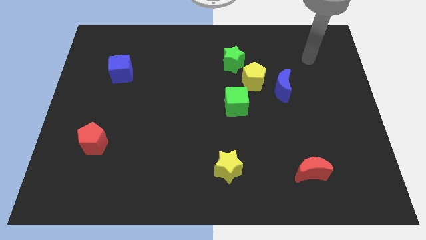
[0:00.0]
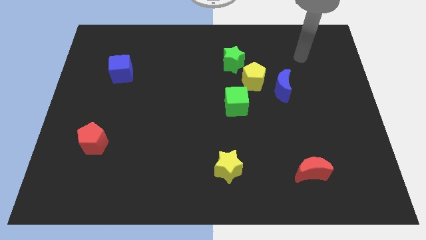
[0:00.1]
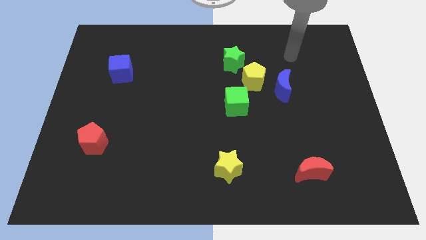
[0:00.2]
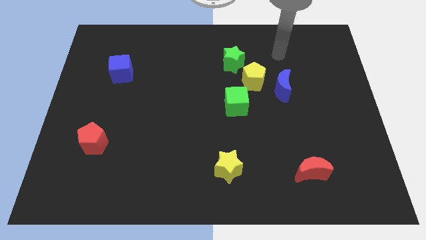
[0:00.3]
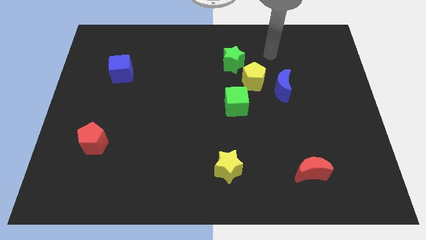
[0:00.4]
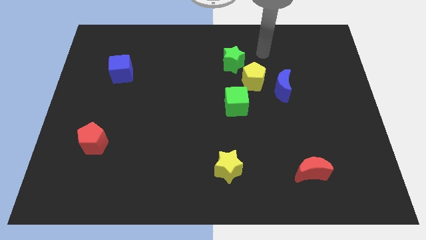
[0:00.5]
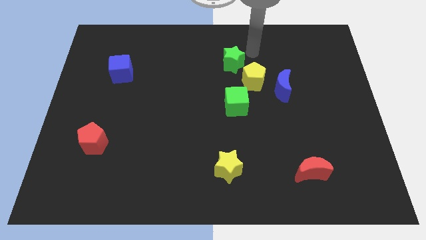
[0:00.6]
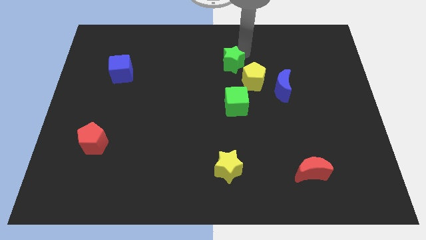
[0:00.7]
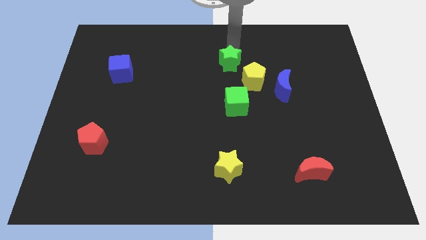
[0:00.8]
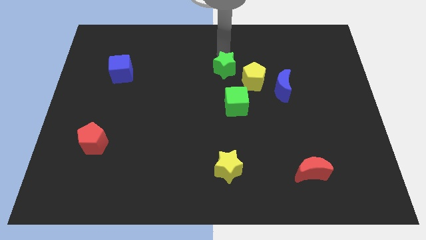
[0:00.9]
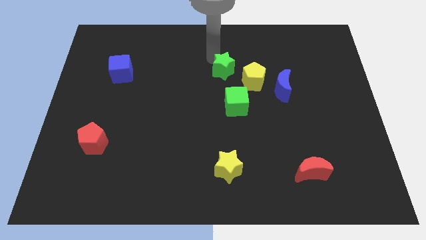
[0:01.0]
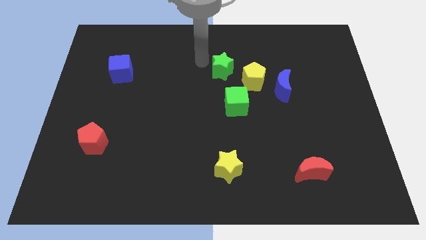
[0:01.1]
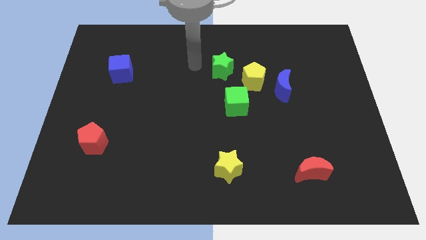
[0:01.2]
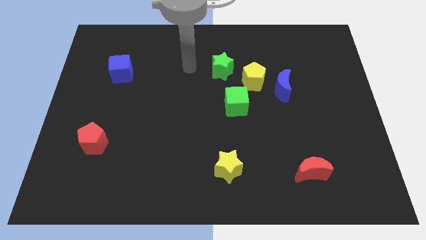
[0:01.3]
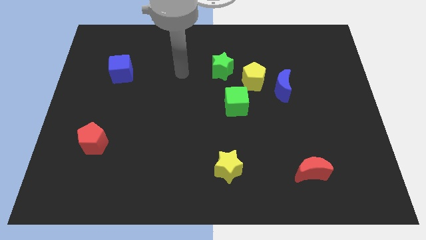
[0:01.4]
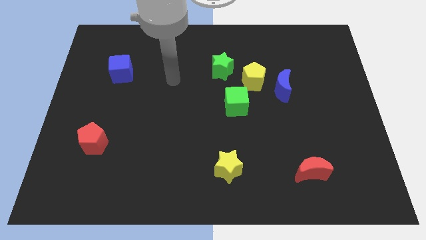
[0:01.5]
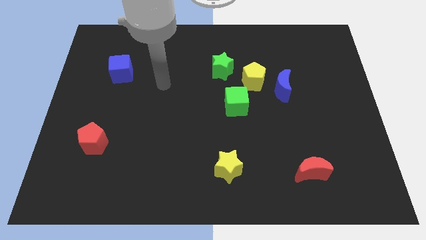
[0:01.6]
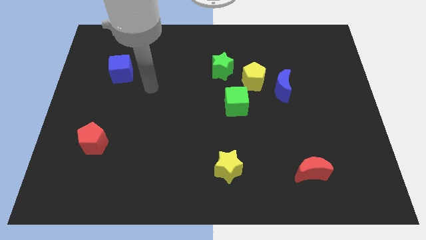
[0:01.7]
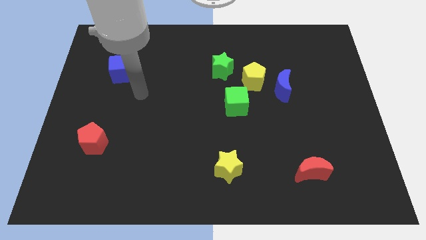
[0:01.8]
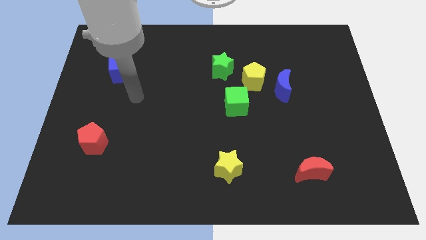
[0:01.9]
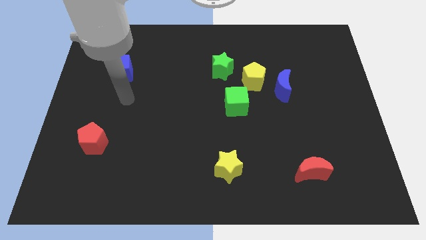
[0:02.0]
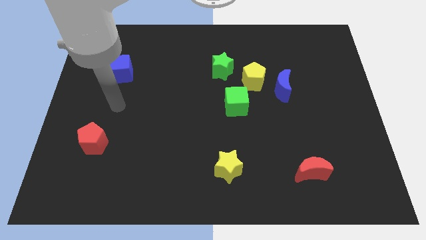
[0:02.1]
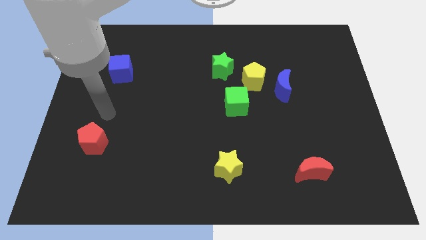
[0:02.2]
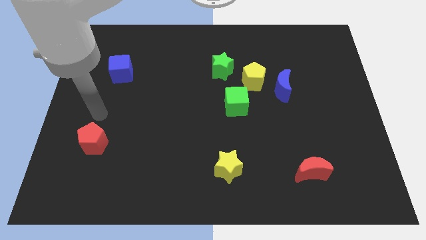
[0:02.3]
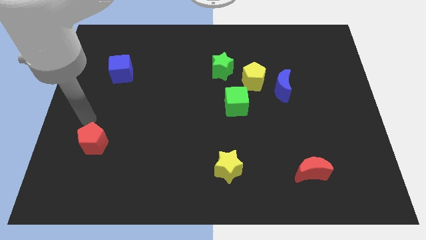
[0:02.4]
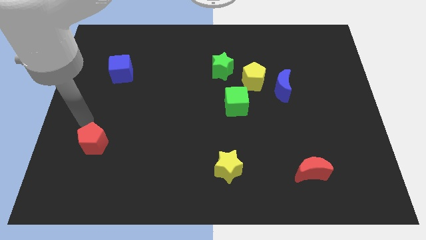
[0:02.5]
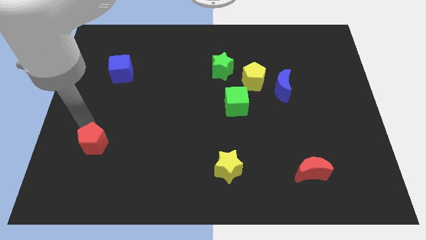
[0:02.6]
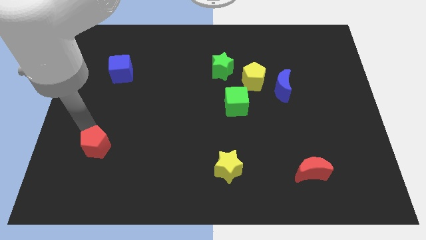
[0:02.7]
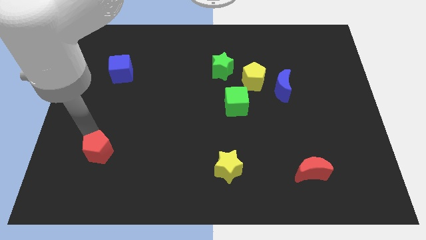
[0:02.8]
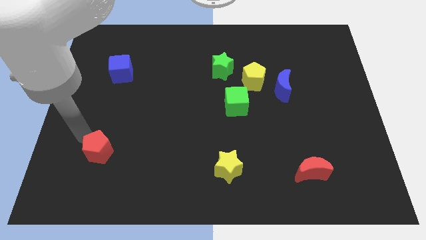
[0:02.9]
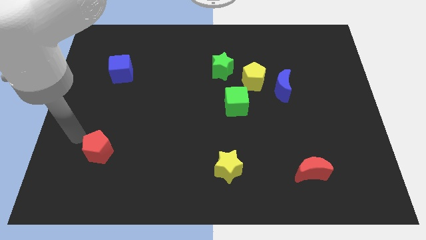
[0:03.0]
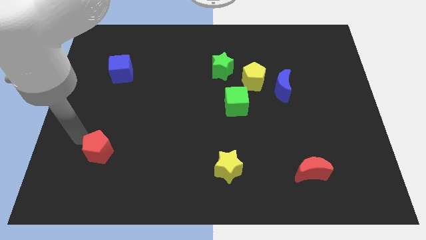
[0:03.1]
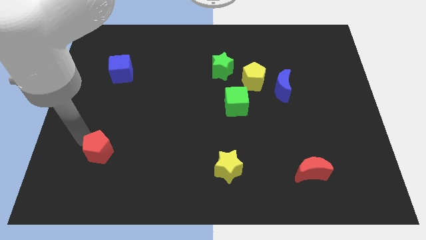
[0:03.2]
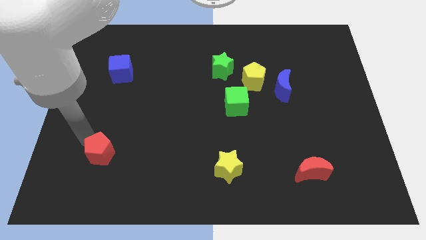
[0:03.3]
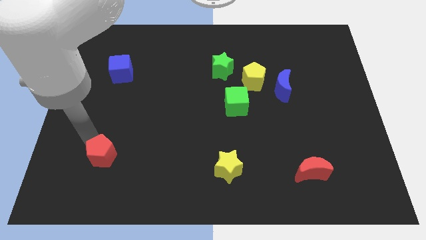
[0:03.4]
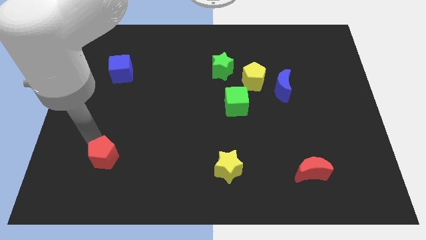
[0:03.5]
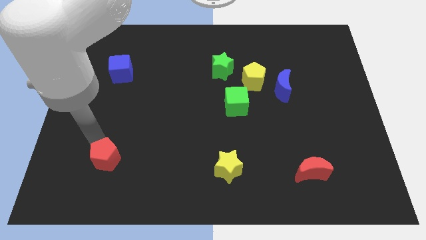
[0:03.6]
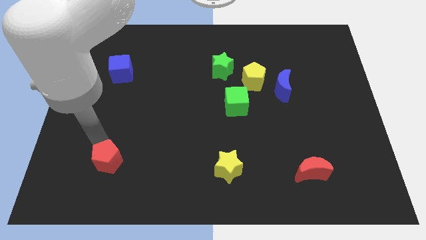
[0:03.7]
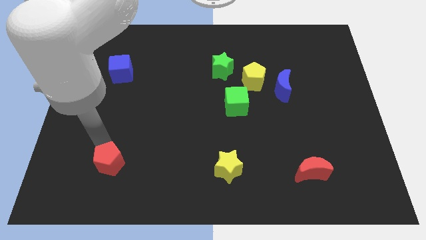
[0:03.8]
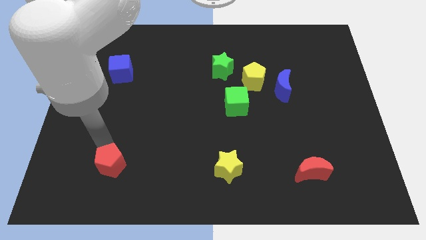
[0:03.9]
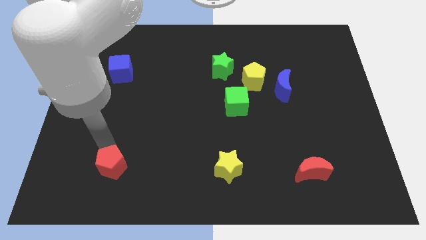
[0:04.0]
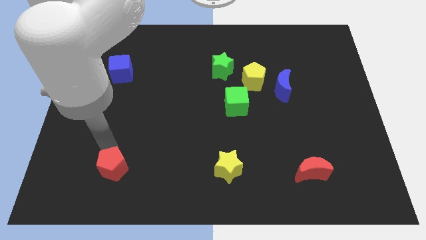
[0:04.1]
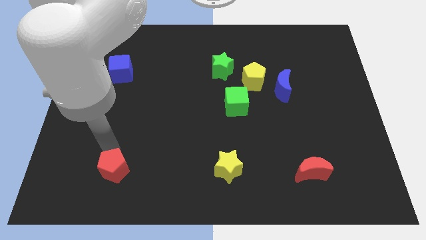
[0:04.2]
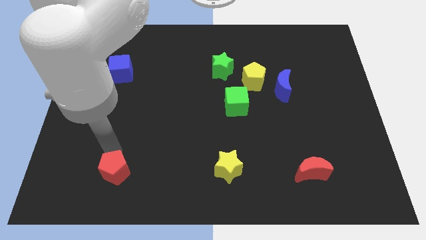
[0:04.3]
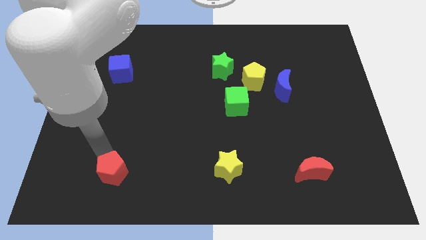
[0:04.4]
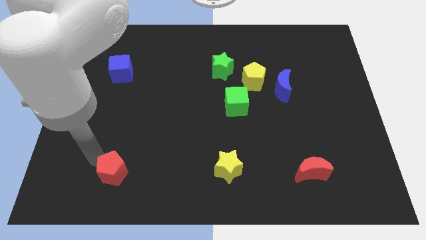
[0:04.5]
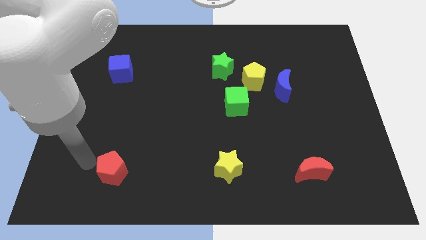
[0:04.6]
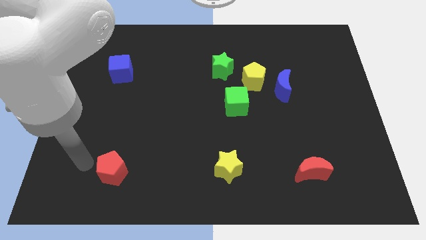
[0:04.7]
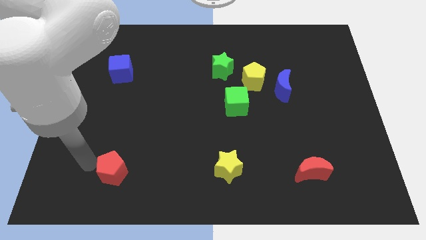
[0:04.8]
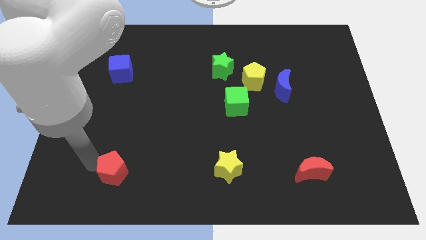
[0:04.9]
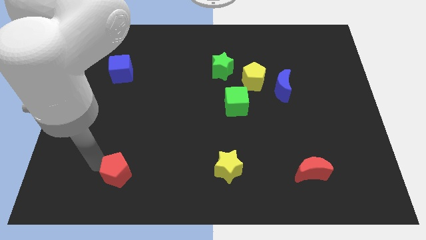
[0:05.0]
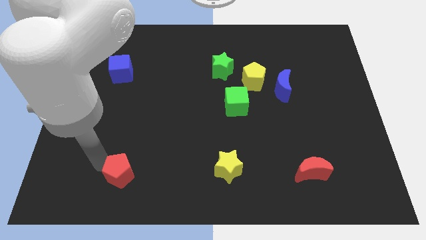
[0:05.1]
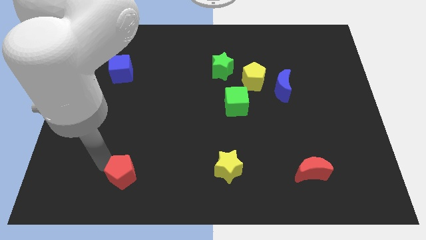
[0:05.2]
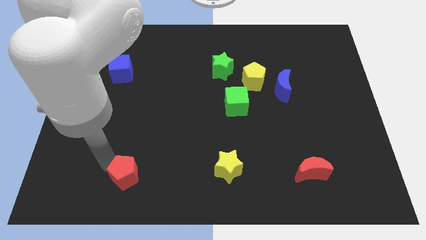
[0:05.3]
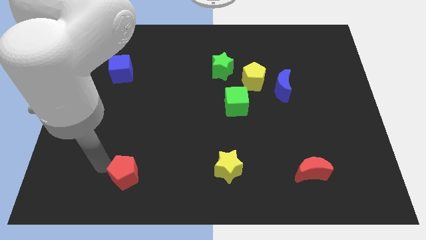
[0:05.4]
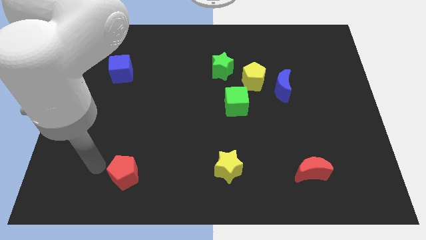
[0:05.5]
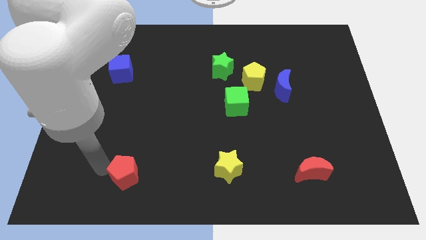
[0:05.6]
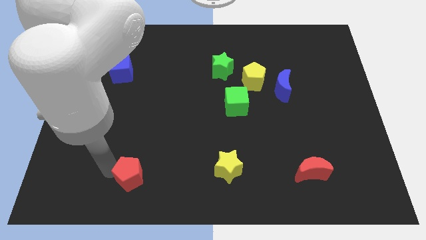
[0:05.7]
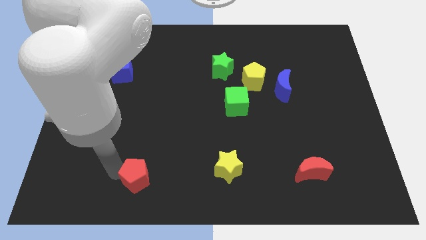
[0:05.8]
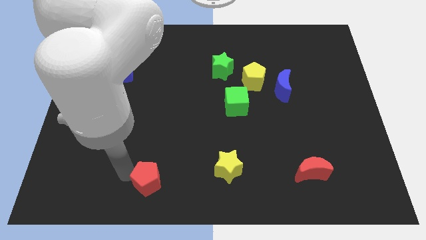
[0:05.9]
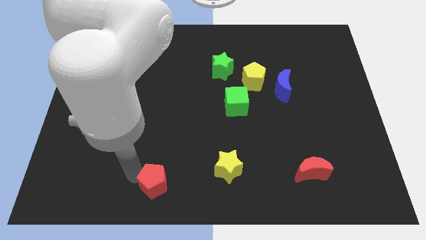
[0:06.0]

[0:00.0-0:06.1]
put the red pentagon to the bottom side

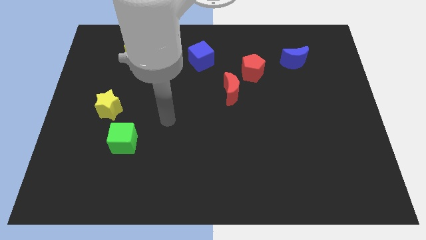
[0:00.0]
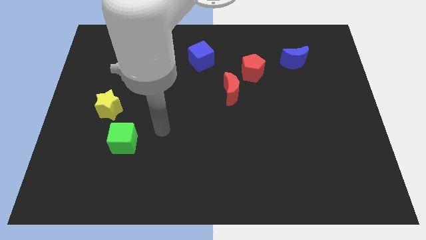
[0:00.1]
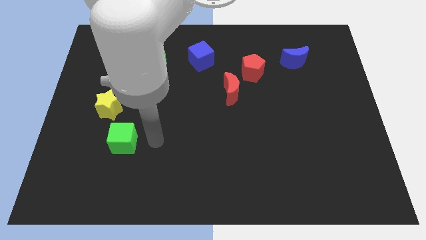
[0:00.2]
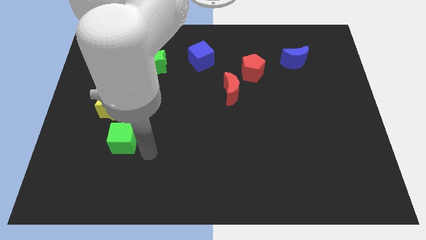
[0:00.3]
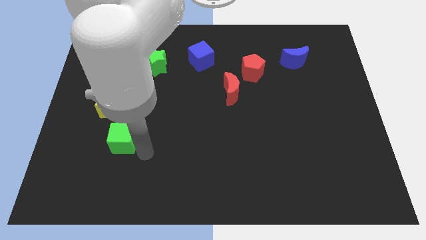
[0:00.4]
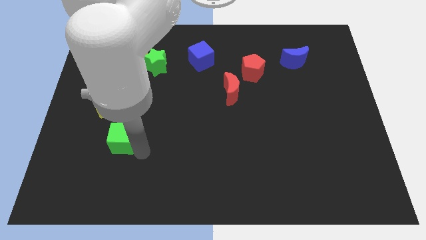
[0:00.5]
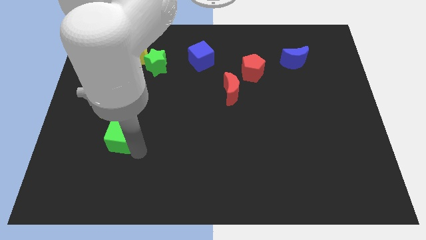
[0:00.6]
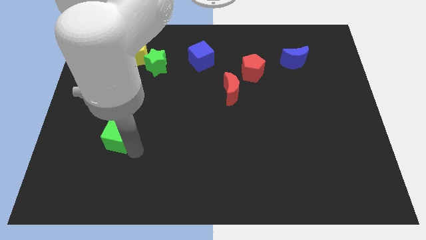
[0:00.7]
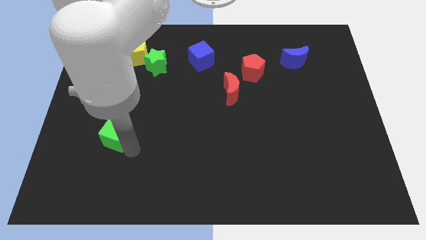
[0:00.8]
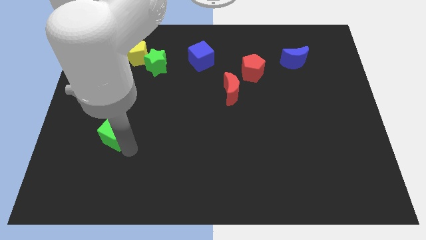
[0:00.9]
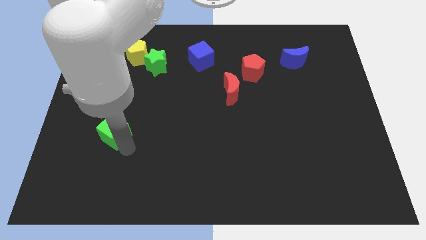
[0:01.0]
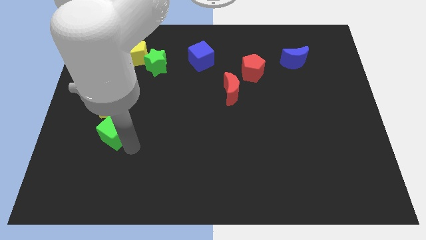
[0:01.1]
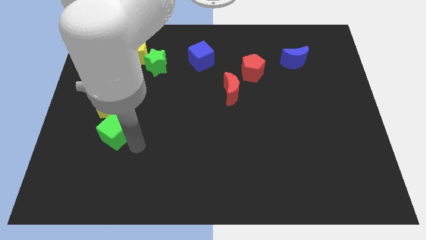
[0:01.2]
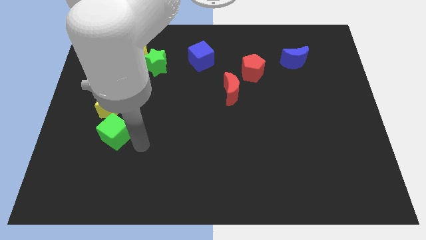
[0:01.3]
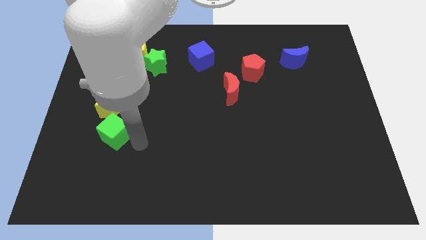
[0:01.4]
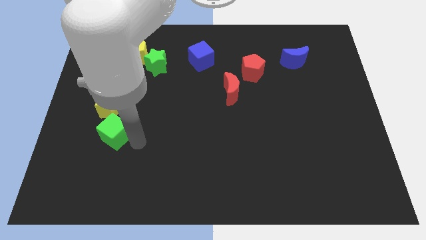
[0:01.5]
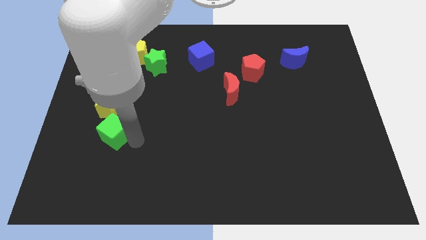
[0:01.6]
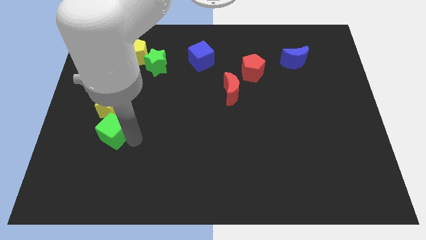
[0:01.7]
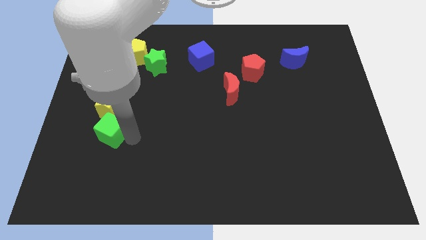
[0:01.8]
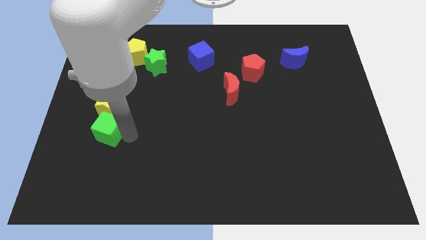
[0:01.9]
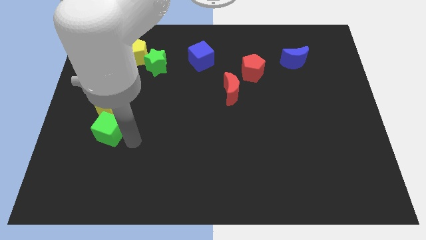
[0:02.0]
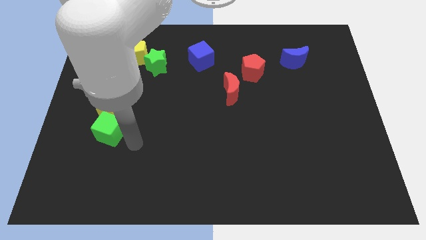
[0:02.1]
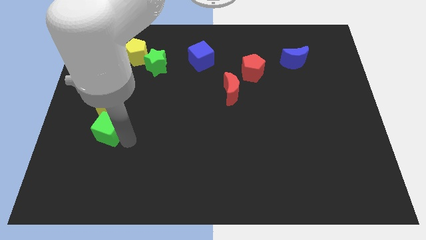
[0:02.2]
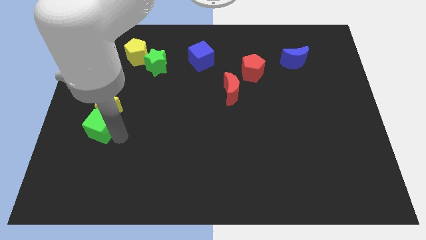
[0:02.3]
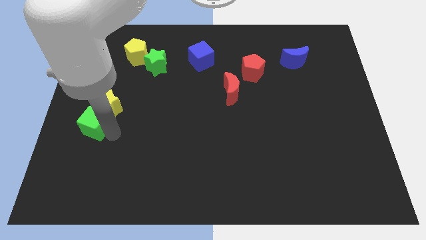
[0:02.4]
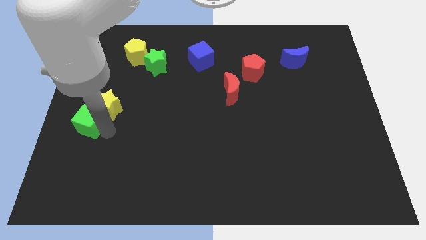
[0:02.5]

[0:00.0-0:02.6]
put the green cube to the left side of the board
